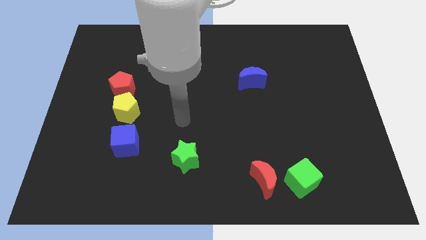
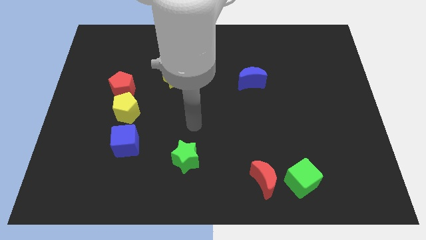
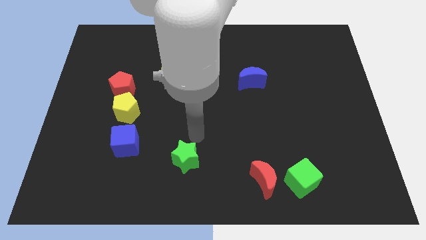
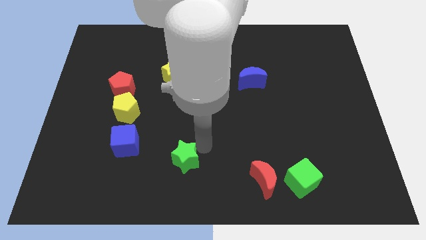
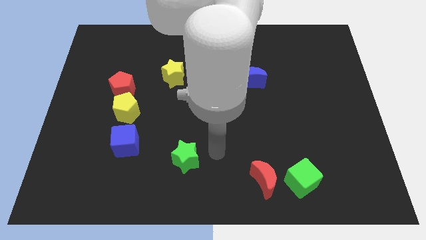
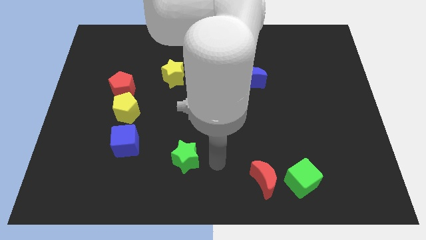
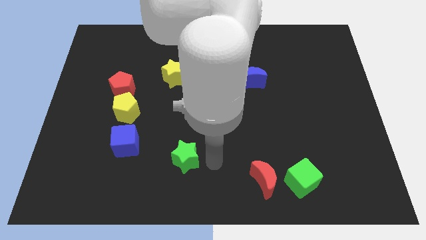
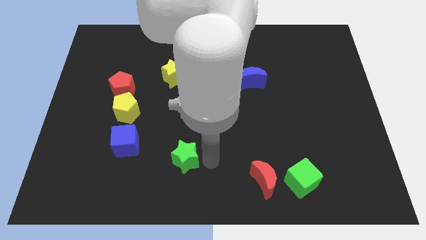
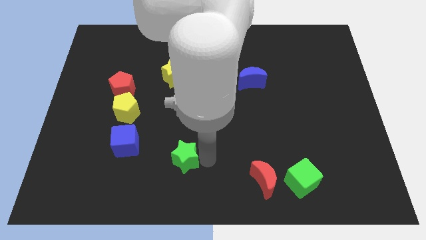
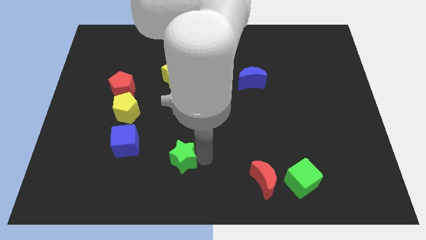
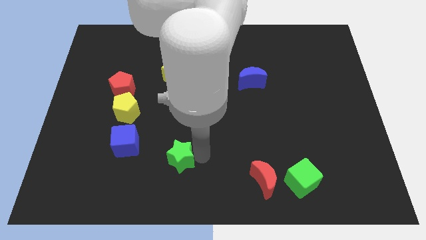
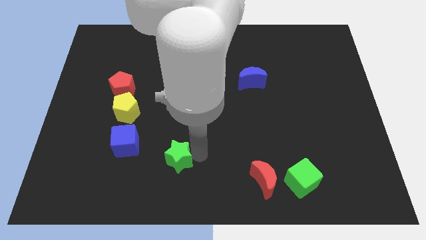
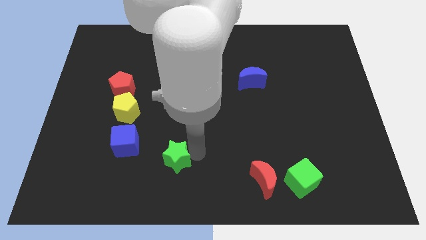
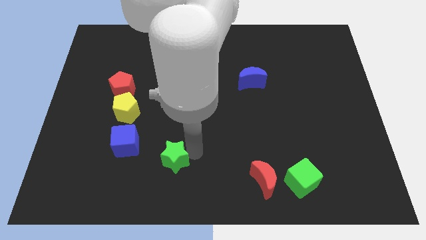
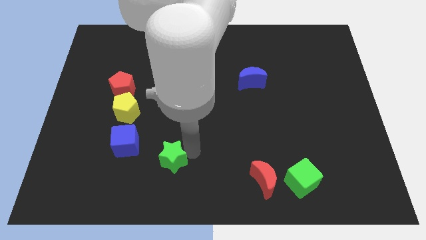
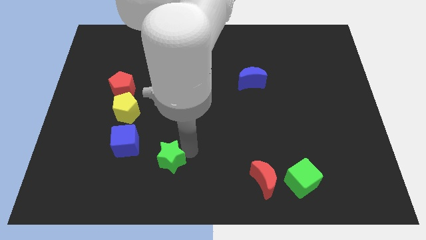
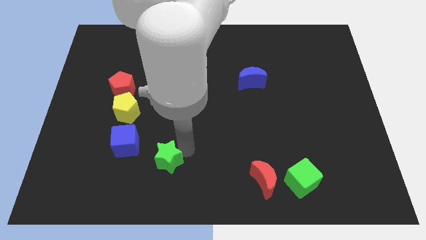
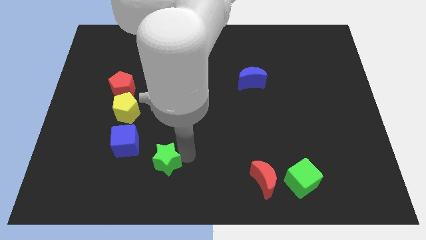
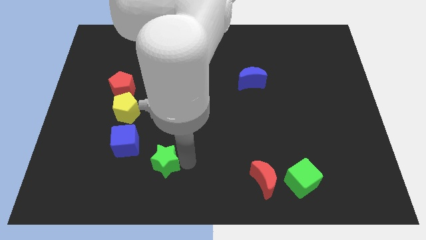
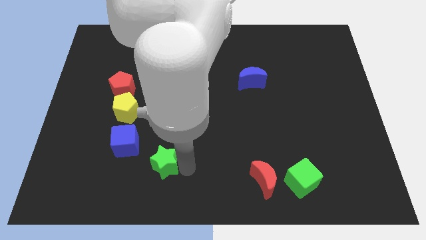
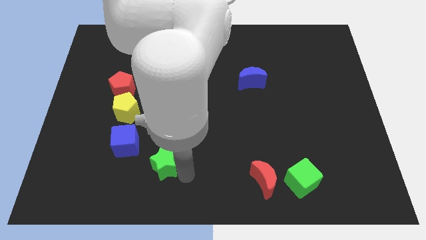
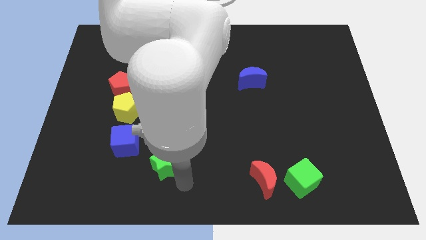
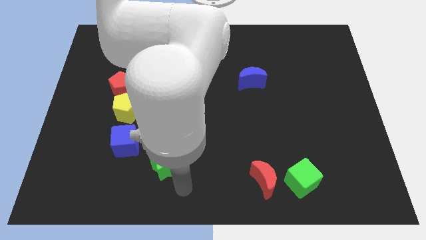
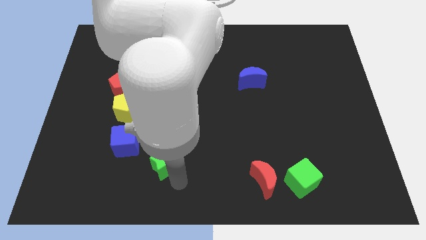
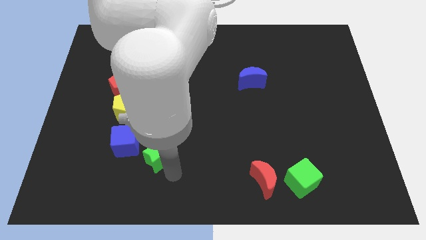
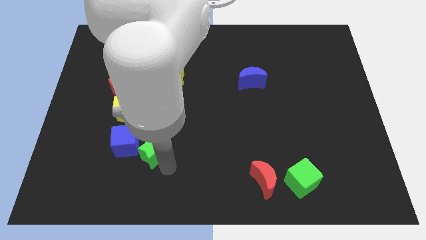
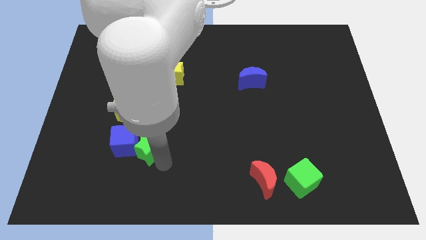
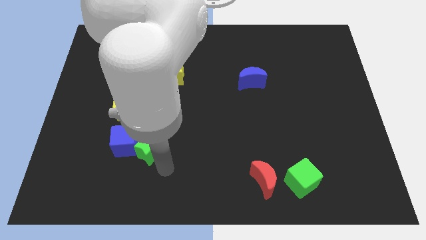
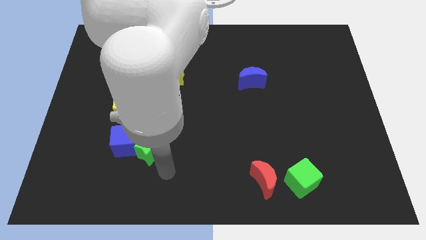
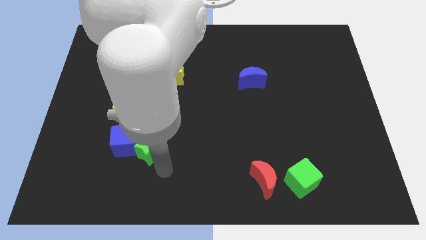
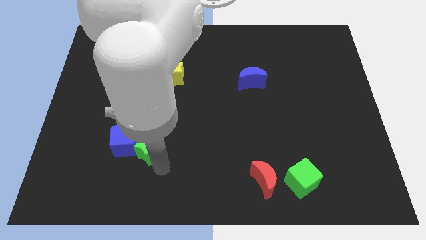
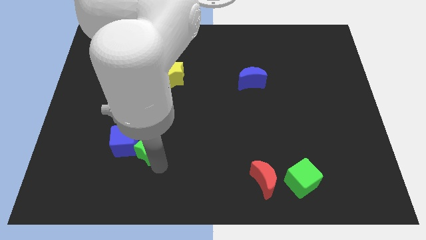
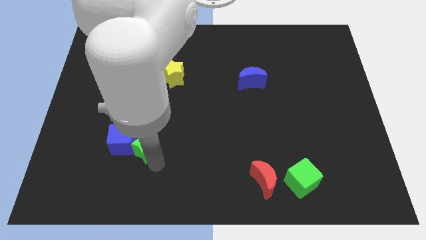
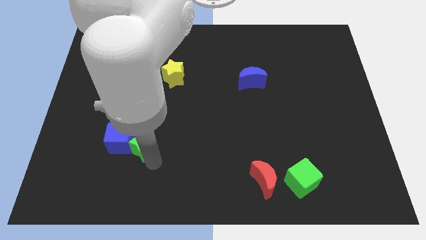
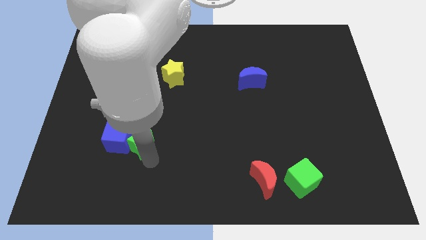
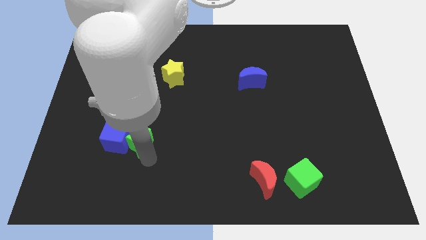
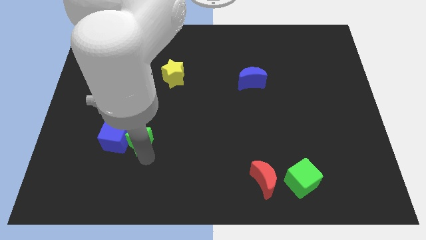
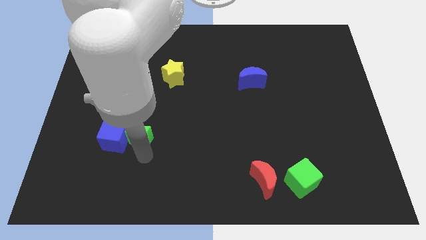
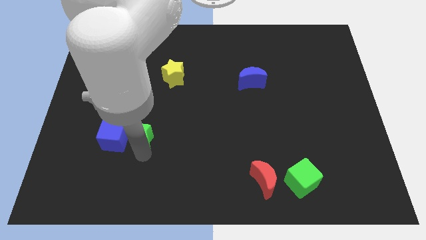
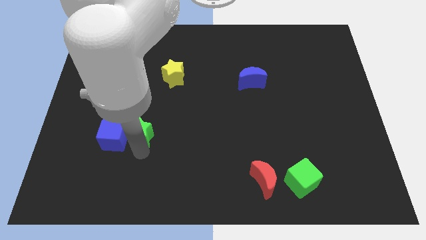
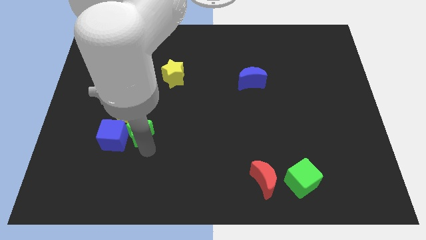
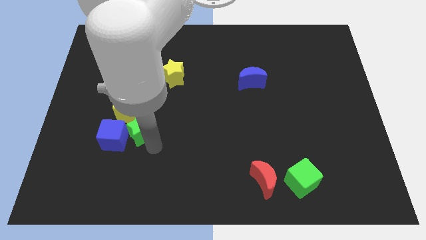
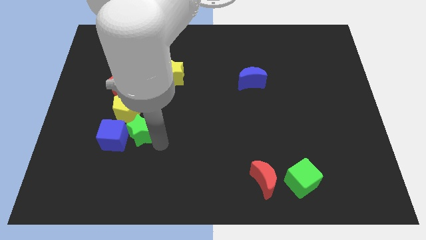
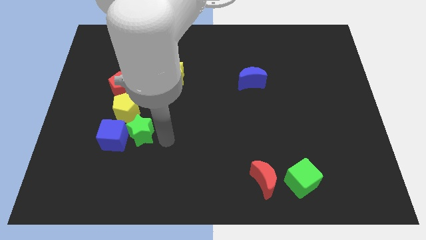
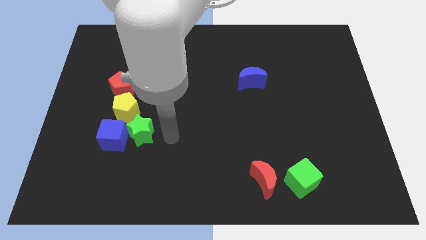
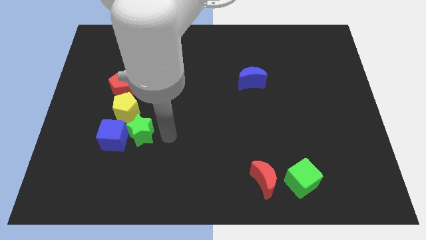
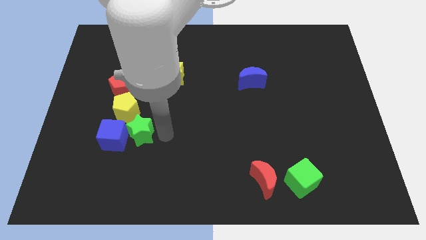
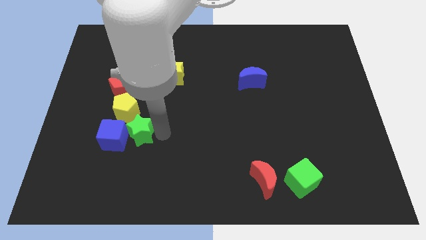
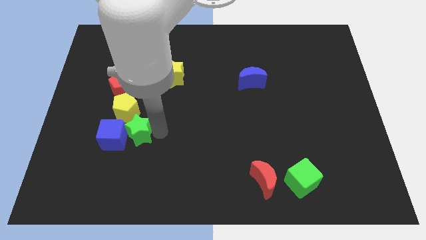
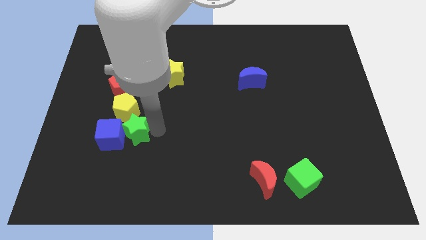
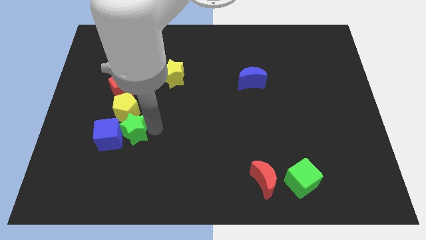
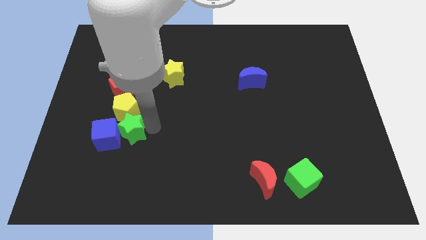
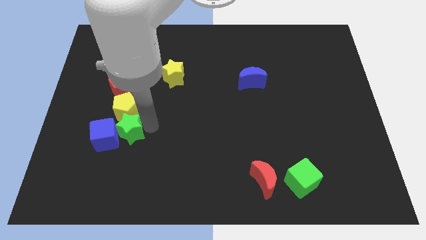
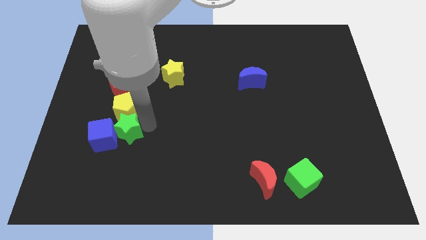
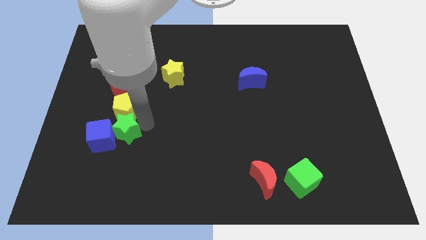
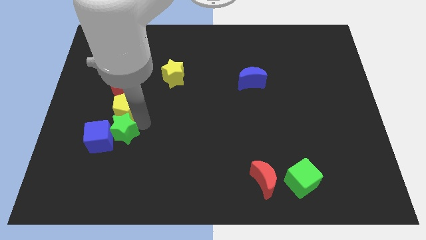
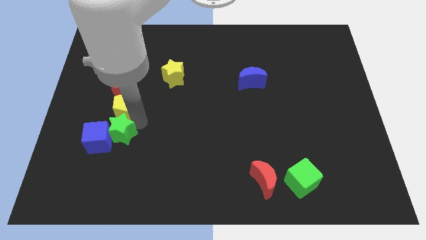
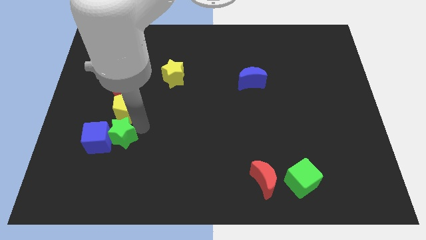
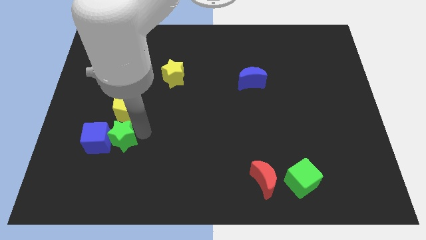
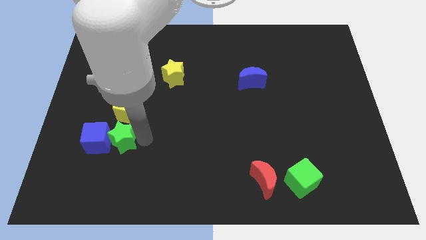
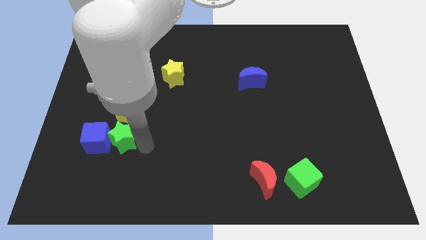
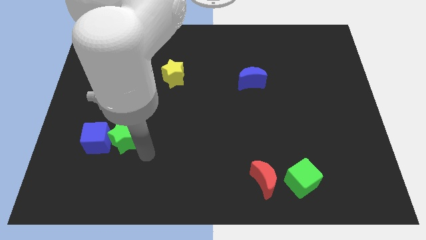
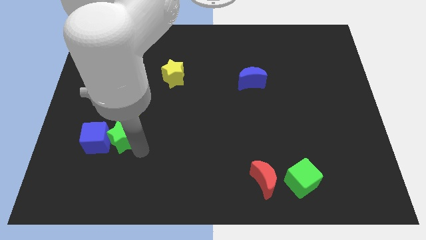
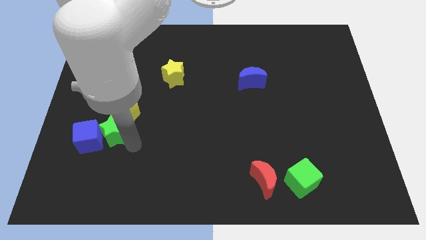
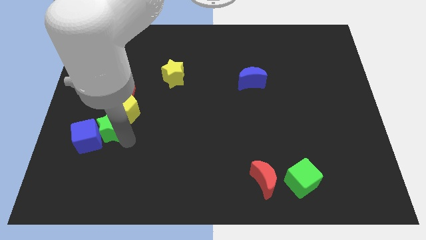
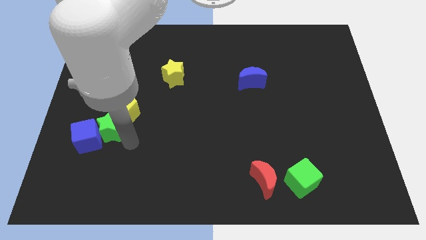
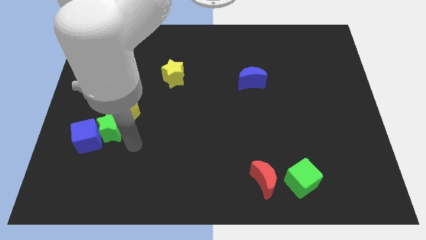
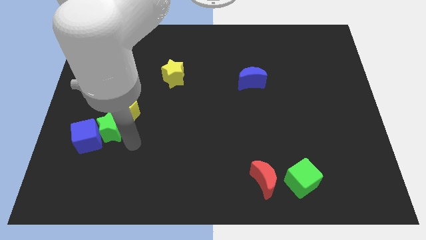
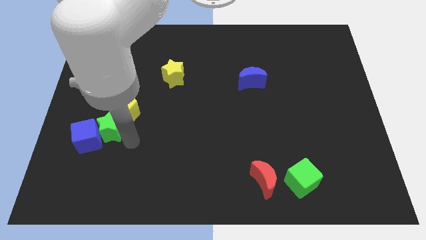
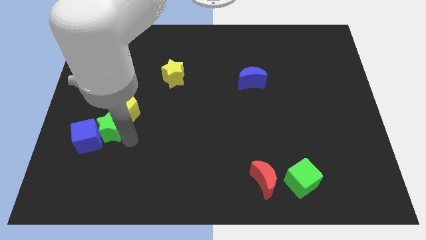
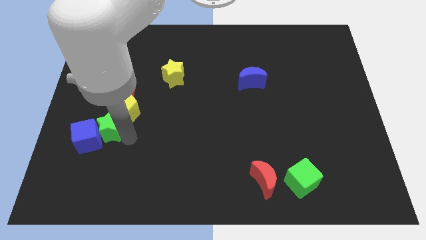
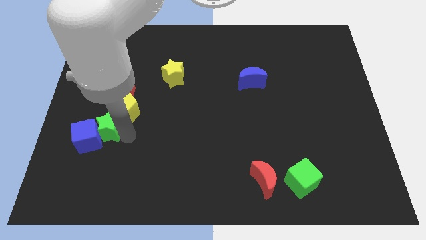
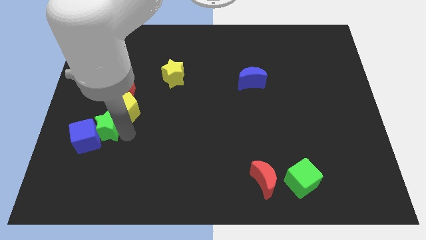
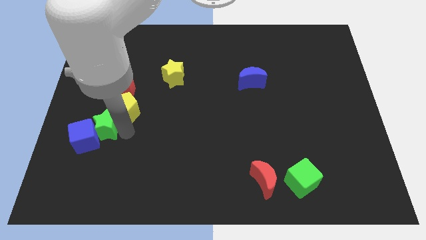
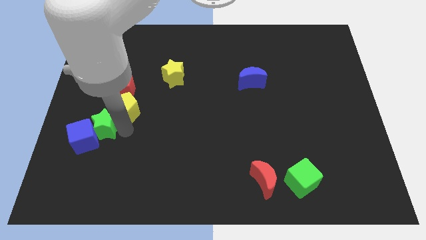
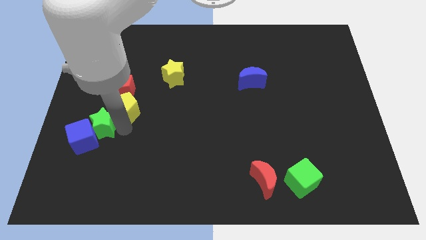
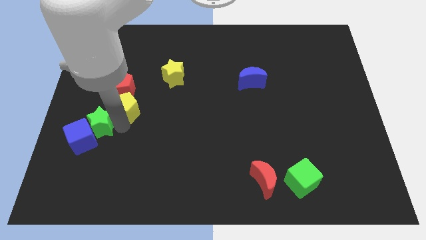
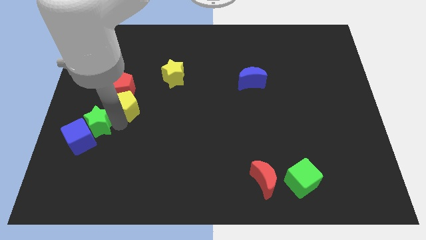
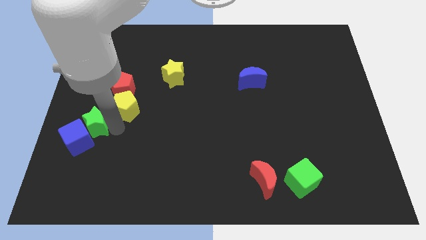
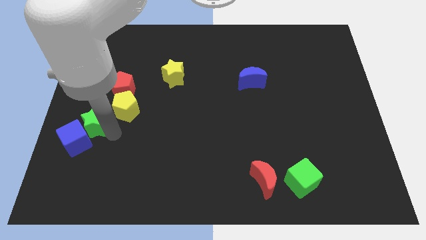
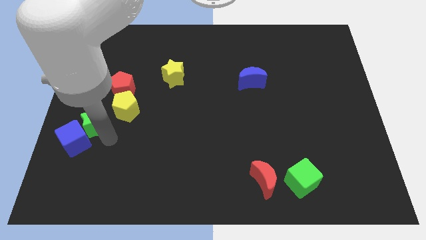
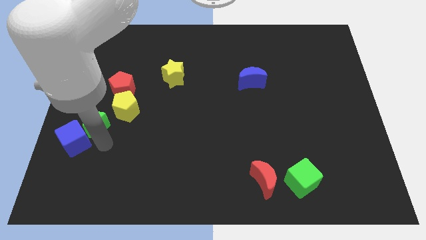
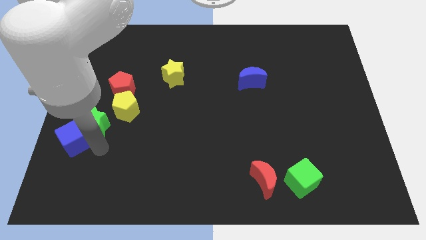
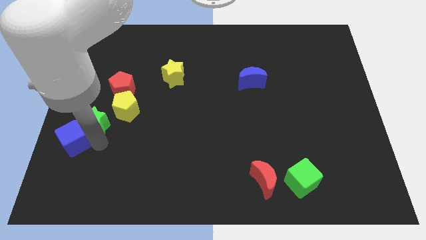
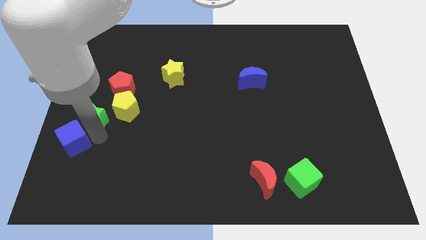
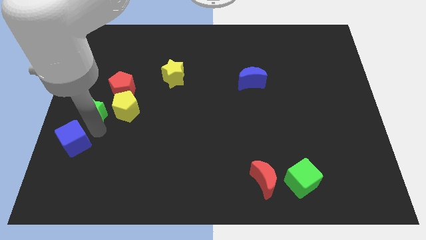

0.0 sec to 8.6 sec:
move the green star up and to the left diagonally
